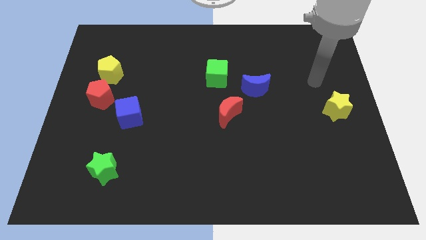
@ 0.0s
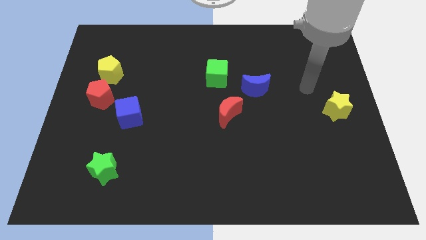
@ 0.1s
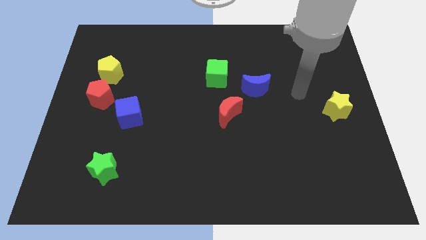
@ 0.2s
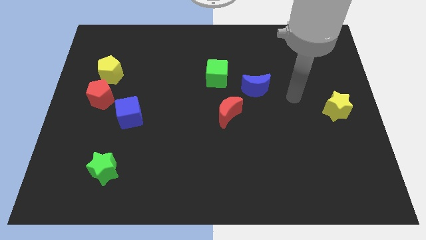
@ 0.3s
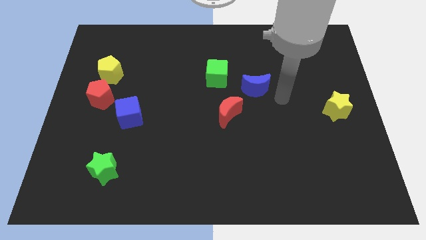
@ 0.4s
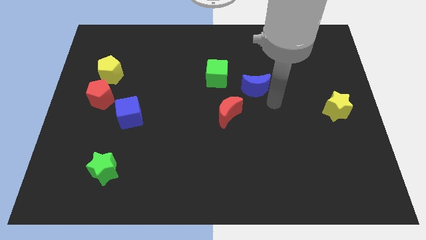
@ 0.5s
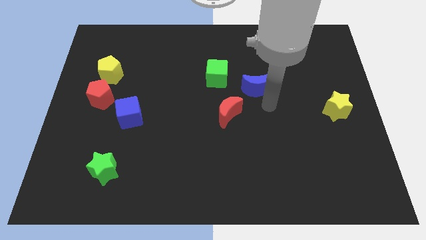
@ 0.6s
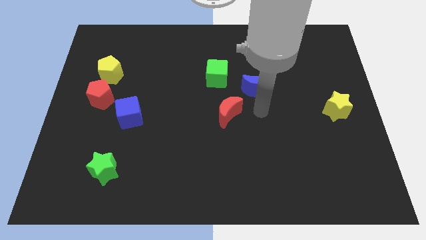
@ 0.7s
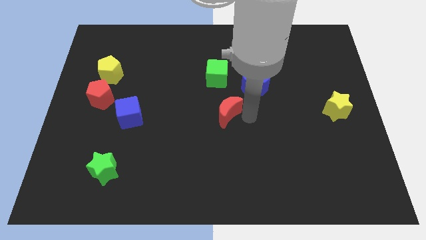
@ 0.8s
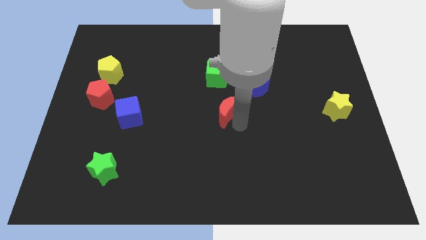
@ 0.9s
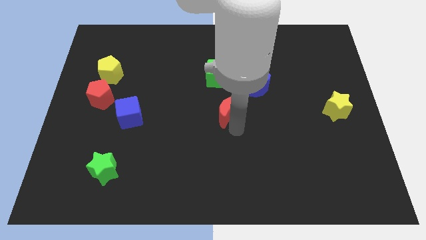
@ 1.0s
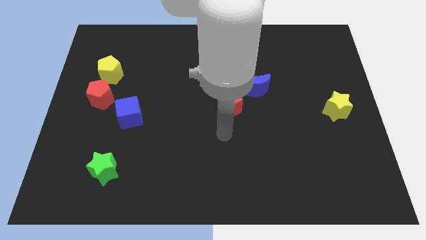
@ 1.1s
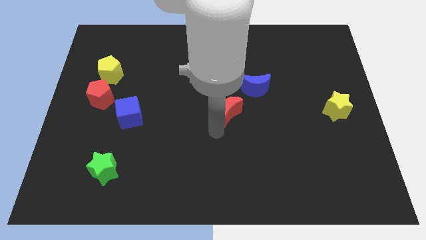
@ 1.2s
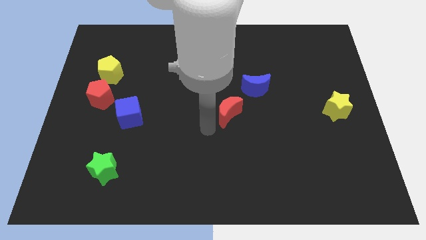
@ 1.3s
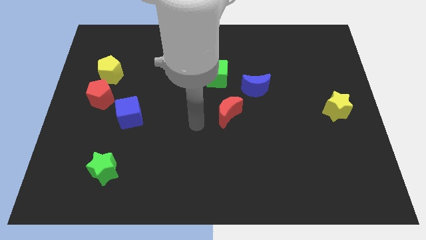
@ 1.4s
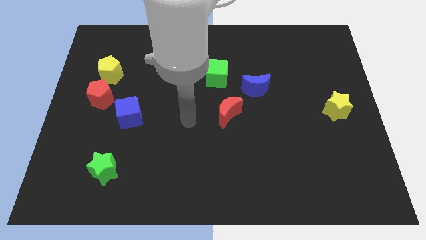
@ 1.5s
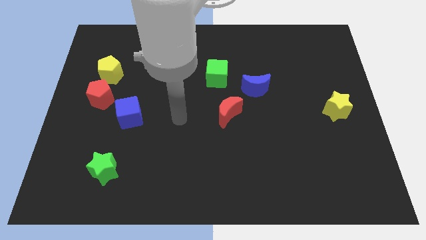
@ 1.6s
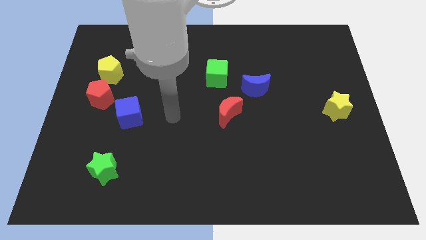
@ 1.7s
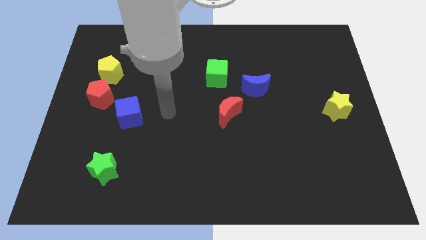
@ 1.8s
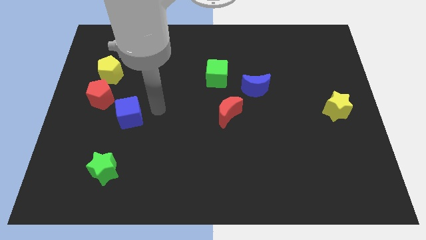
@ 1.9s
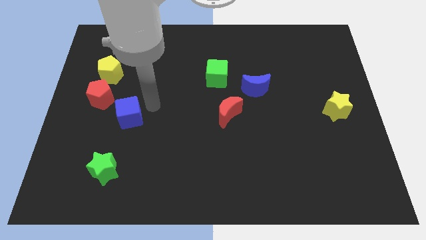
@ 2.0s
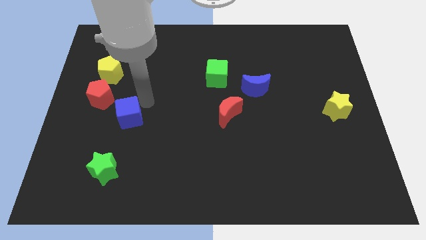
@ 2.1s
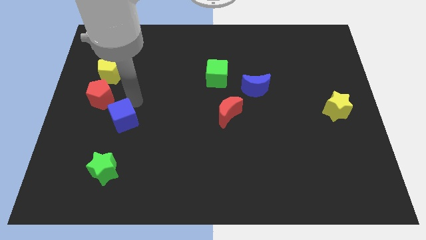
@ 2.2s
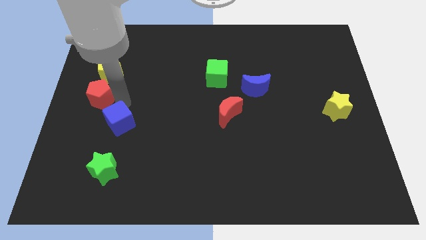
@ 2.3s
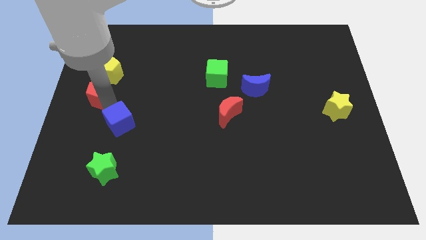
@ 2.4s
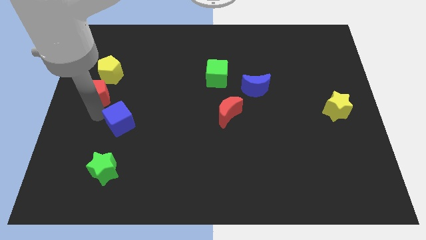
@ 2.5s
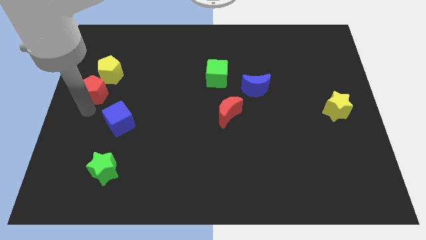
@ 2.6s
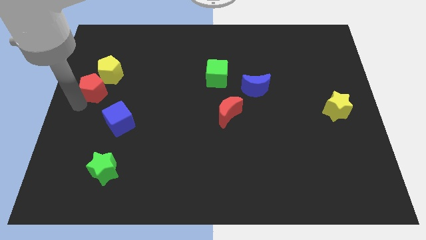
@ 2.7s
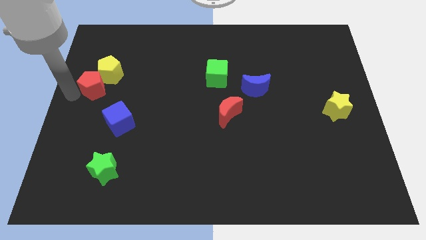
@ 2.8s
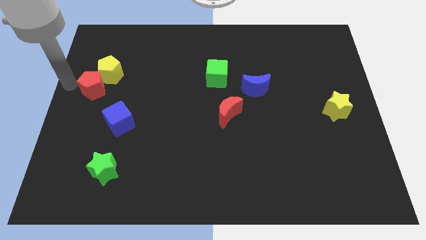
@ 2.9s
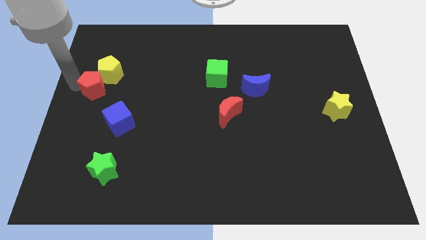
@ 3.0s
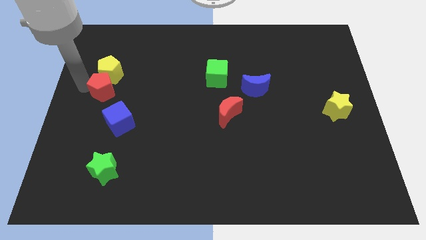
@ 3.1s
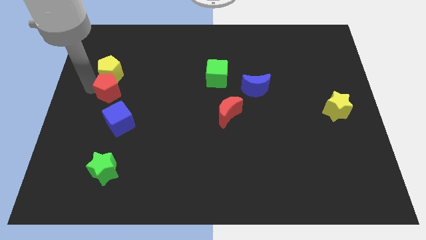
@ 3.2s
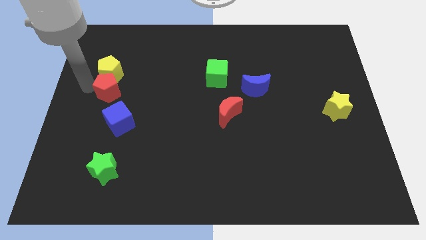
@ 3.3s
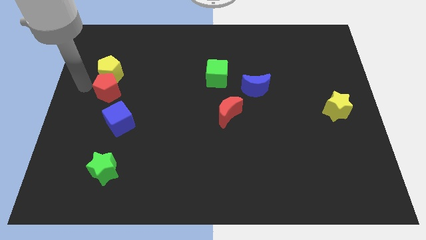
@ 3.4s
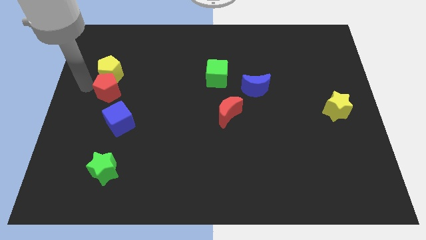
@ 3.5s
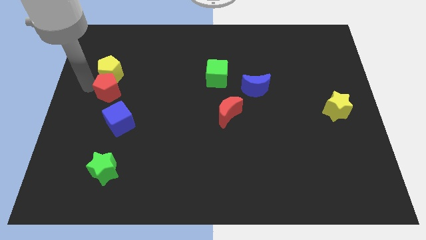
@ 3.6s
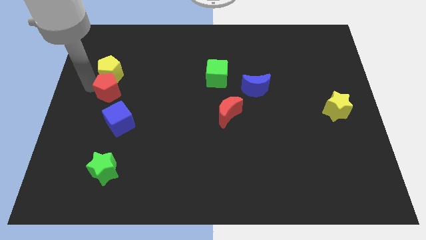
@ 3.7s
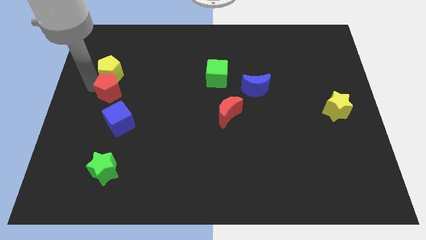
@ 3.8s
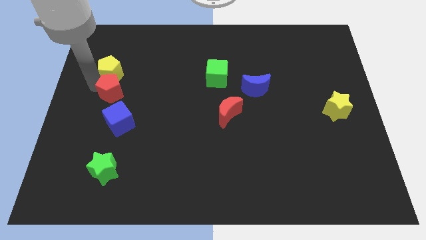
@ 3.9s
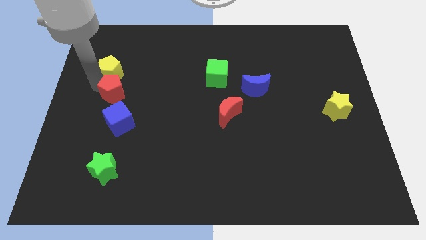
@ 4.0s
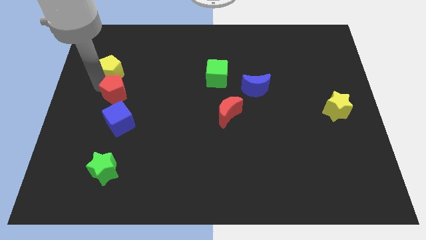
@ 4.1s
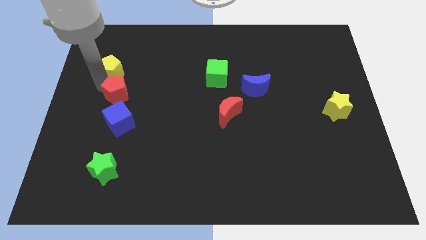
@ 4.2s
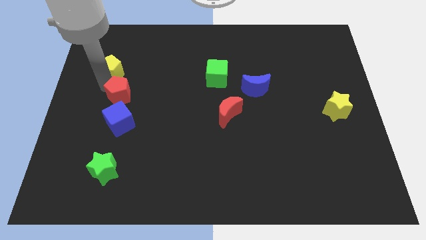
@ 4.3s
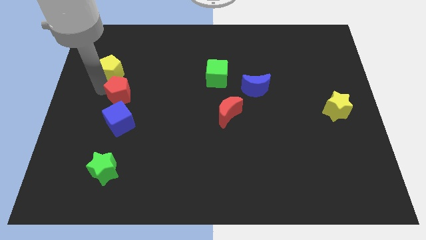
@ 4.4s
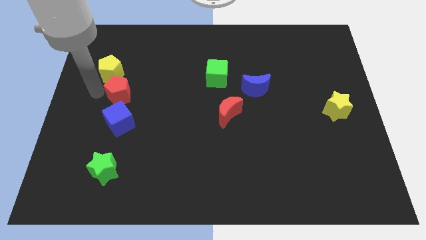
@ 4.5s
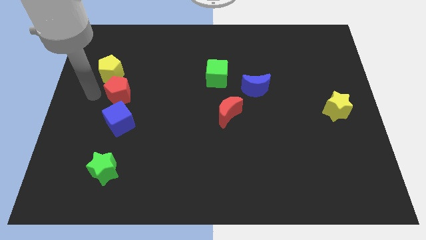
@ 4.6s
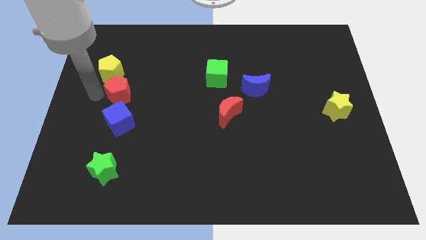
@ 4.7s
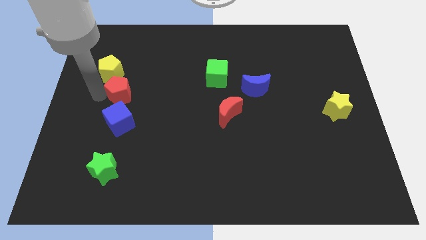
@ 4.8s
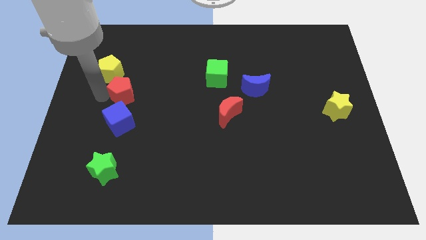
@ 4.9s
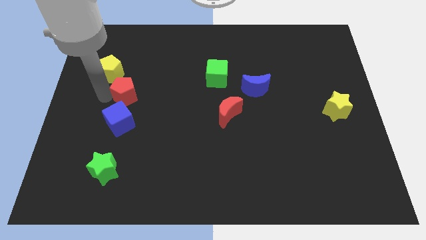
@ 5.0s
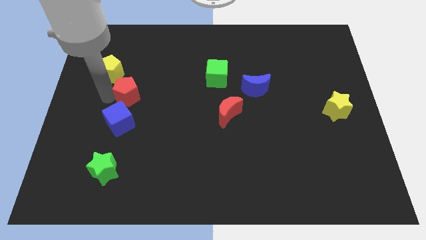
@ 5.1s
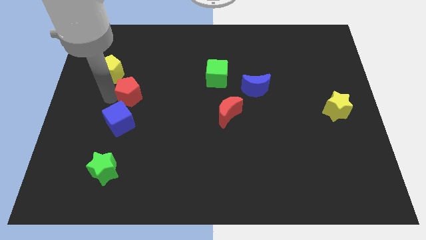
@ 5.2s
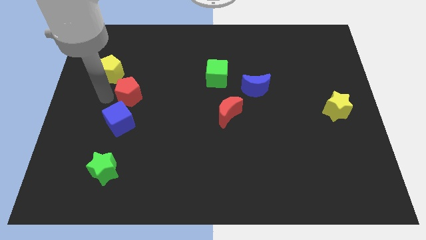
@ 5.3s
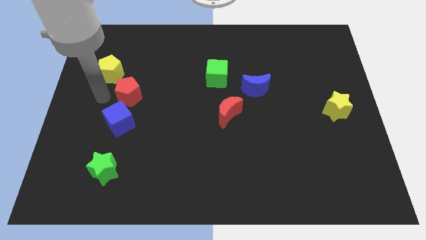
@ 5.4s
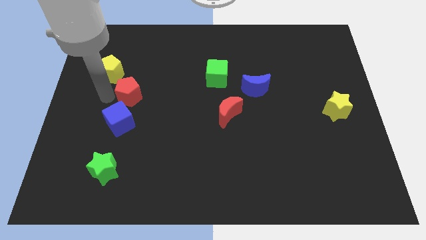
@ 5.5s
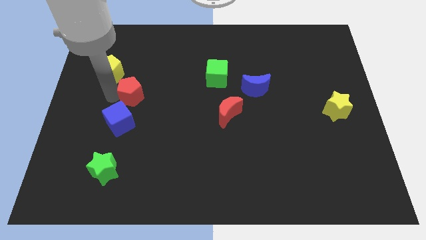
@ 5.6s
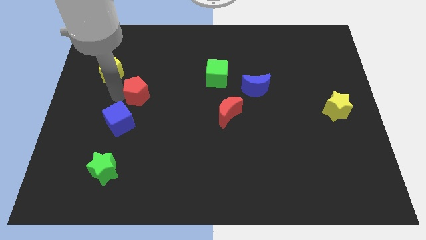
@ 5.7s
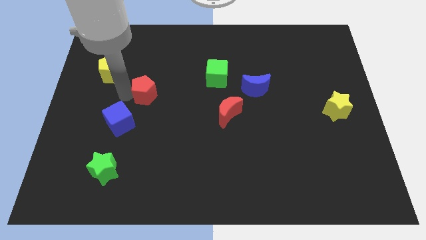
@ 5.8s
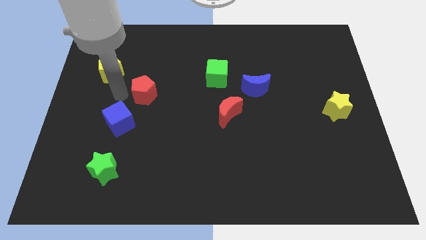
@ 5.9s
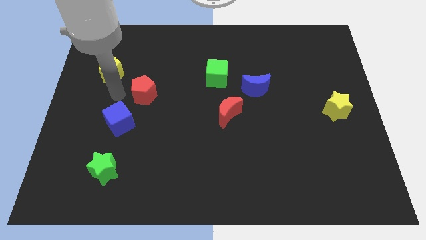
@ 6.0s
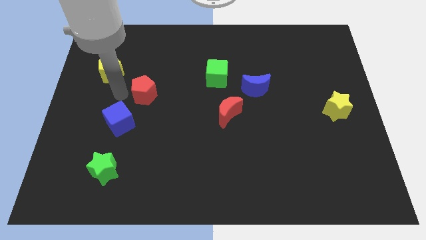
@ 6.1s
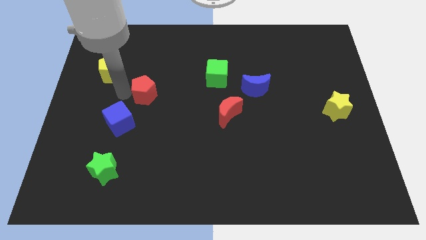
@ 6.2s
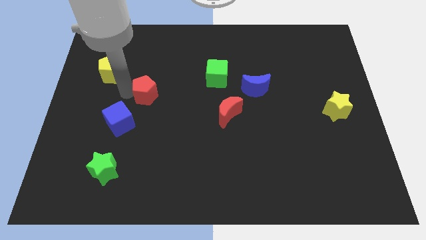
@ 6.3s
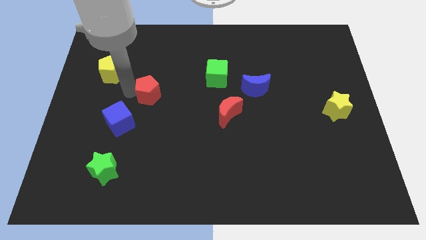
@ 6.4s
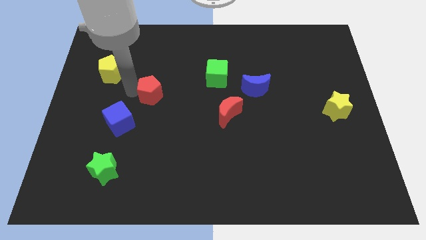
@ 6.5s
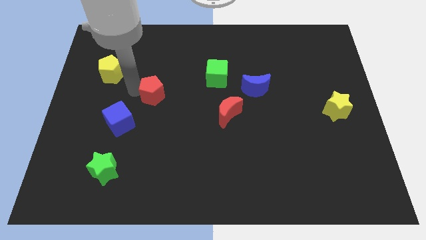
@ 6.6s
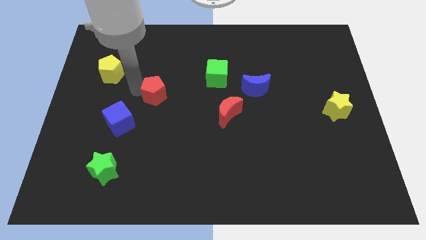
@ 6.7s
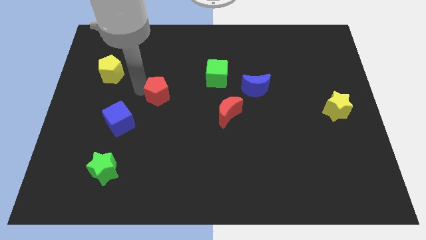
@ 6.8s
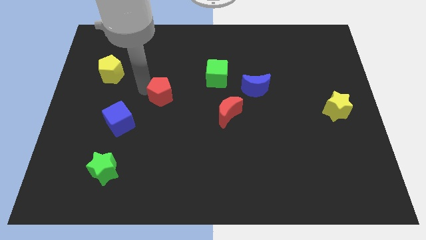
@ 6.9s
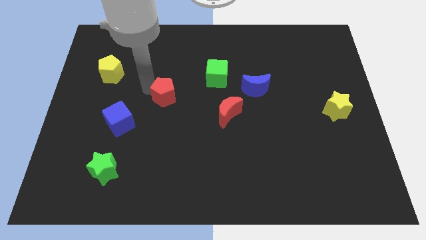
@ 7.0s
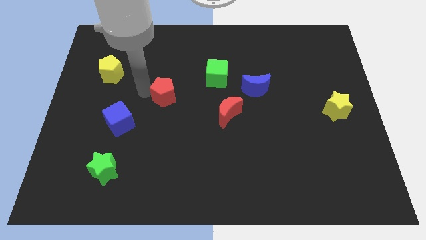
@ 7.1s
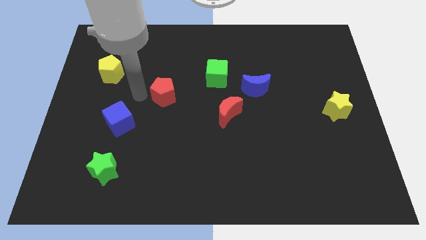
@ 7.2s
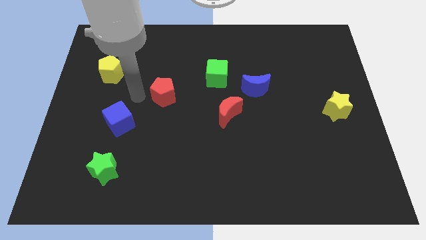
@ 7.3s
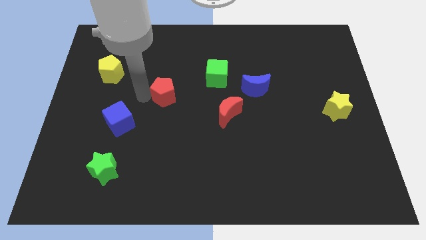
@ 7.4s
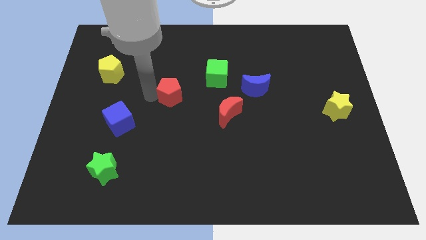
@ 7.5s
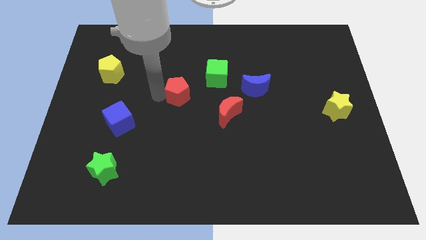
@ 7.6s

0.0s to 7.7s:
move the red pentagon to the bottom left of the green cube

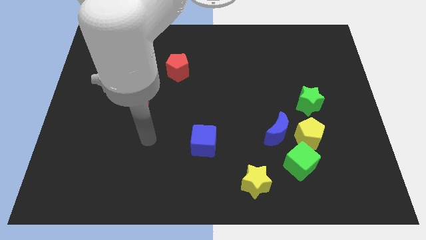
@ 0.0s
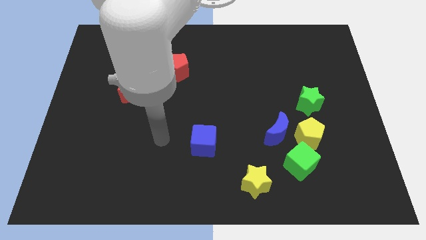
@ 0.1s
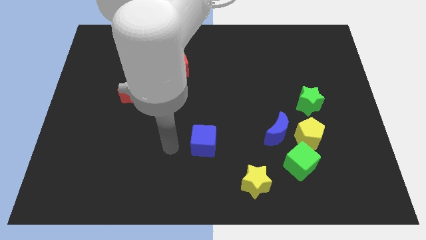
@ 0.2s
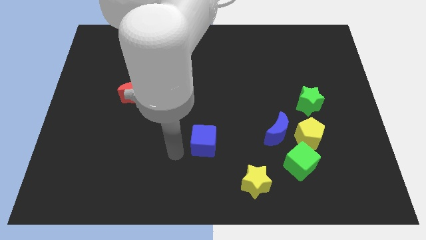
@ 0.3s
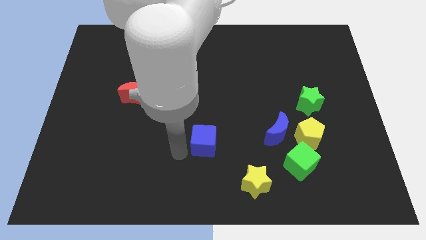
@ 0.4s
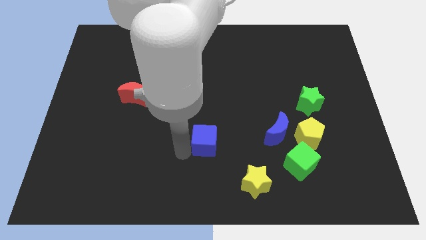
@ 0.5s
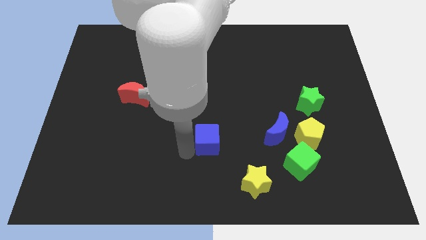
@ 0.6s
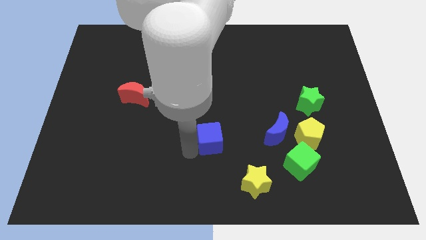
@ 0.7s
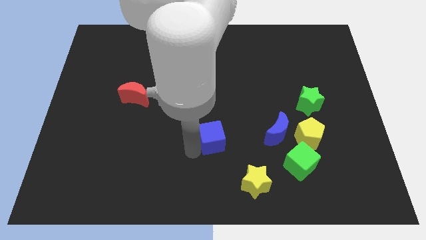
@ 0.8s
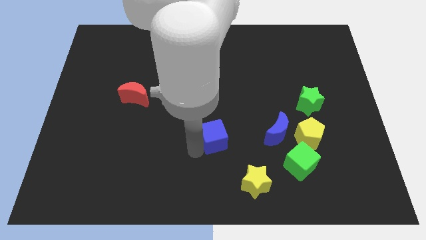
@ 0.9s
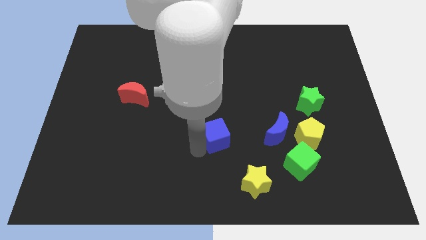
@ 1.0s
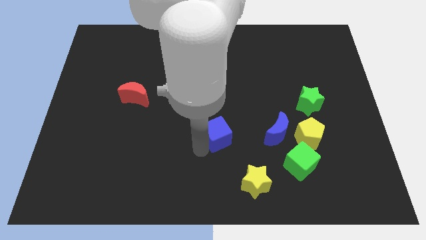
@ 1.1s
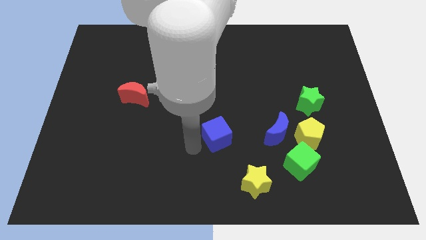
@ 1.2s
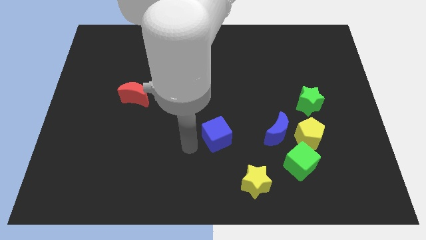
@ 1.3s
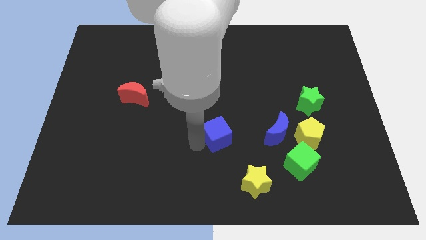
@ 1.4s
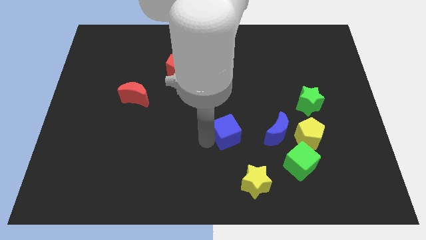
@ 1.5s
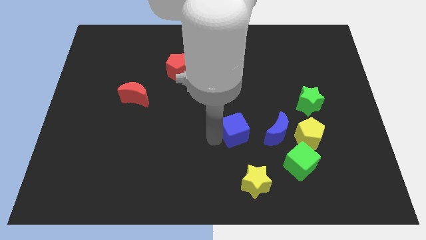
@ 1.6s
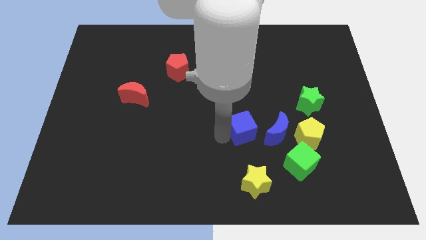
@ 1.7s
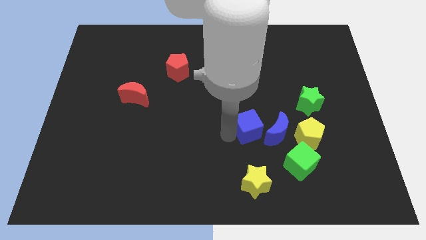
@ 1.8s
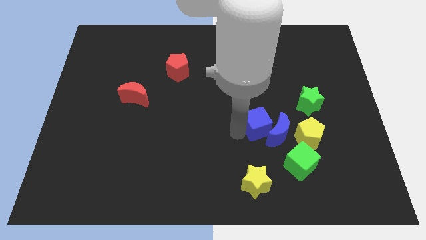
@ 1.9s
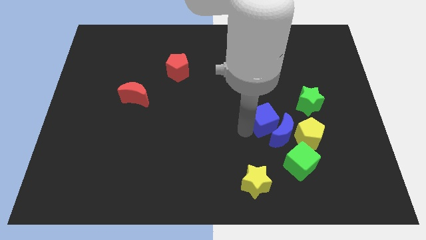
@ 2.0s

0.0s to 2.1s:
push the blue cube to the top left of the yellow pentagon
